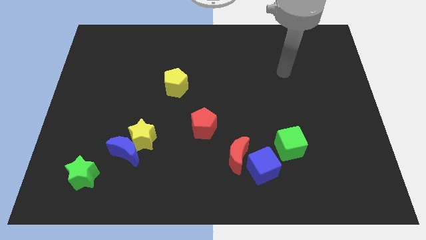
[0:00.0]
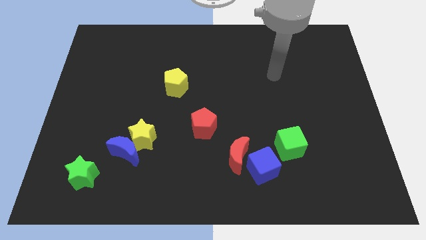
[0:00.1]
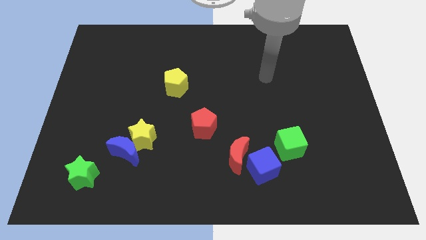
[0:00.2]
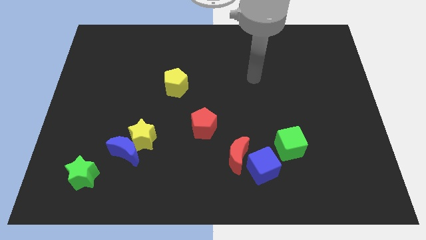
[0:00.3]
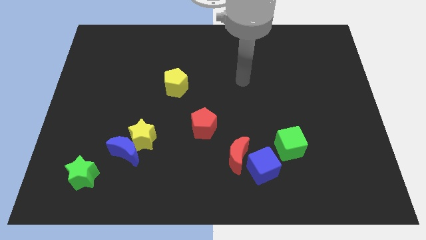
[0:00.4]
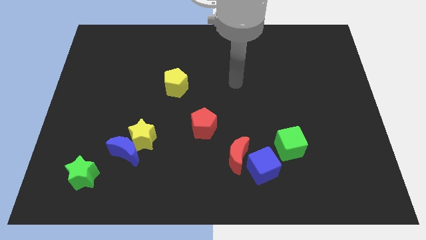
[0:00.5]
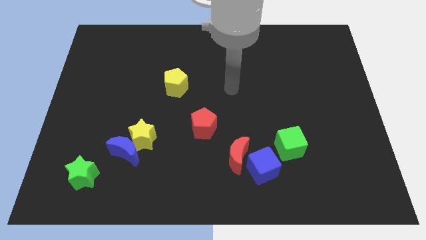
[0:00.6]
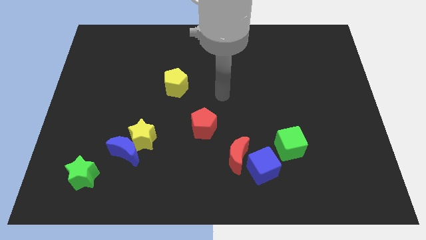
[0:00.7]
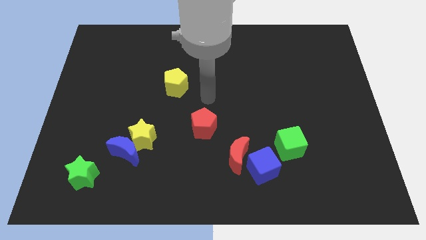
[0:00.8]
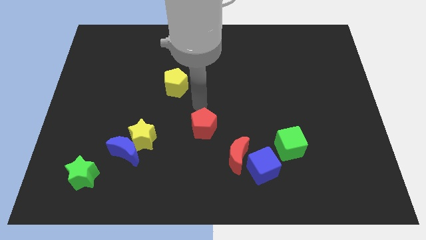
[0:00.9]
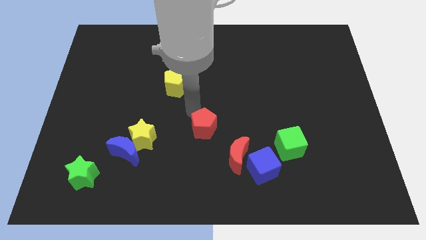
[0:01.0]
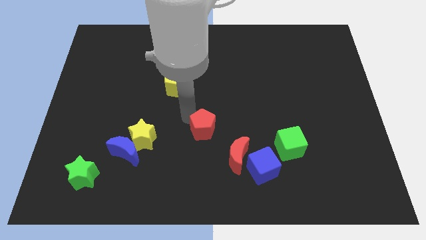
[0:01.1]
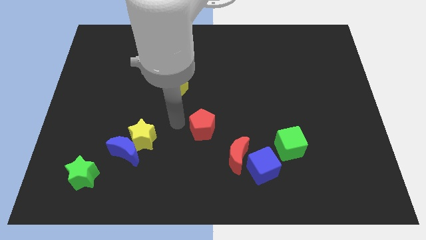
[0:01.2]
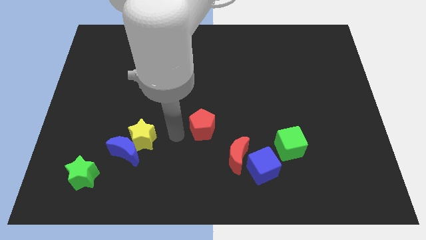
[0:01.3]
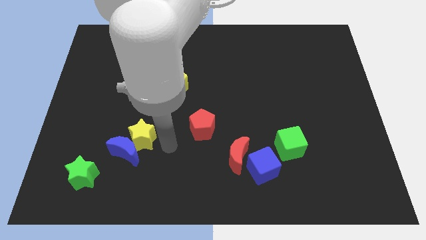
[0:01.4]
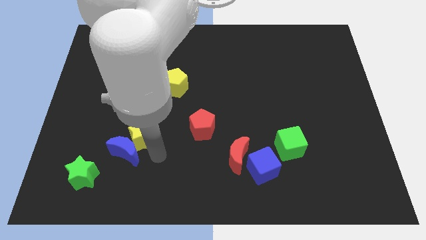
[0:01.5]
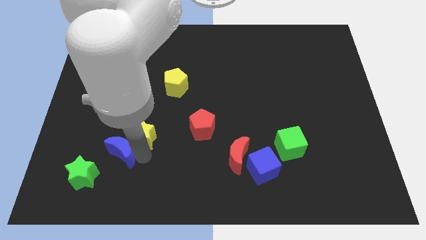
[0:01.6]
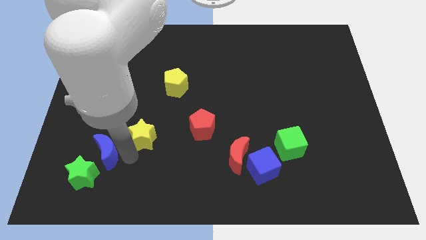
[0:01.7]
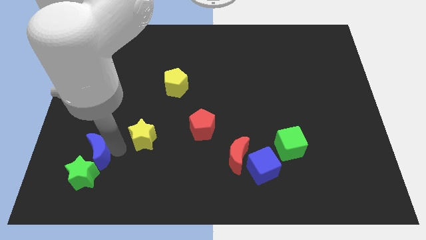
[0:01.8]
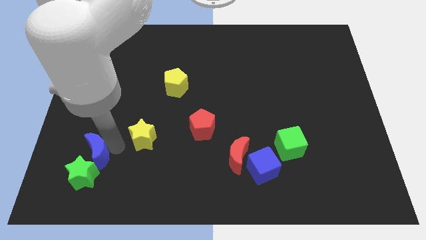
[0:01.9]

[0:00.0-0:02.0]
separate the yellow star from the blue moon

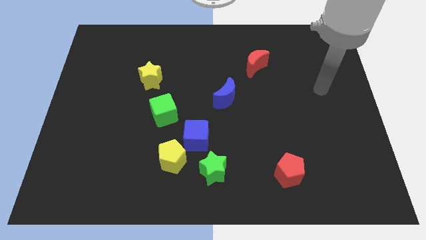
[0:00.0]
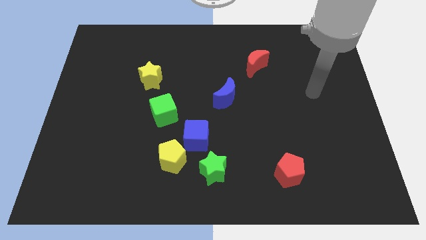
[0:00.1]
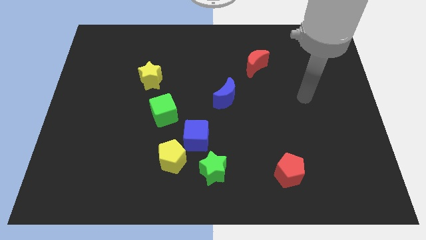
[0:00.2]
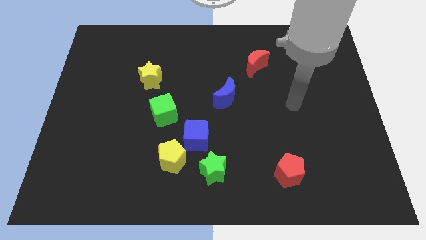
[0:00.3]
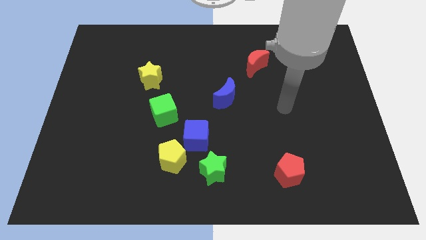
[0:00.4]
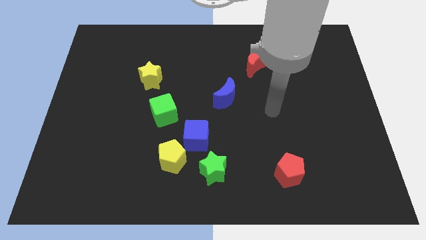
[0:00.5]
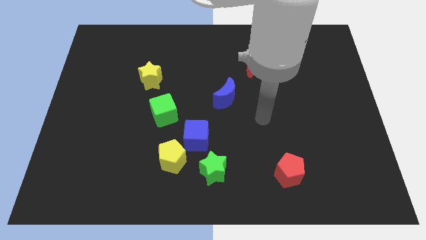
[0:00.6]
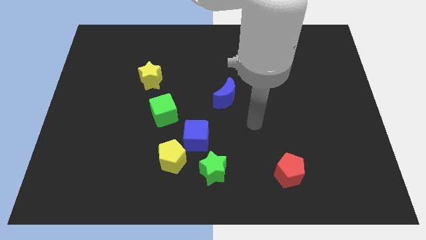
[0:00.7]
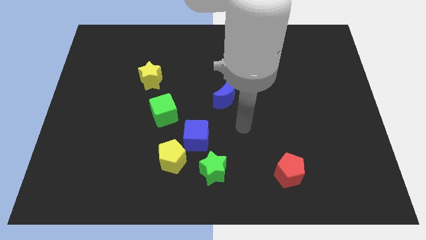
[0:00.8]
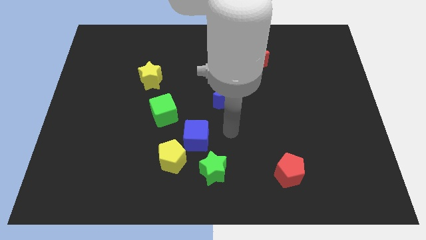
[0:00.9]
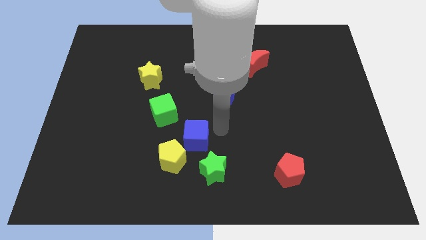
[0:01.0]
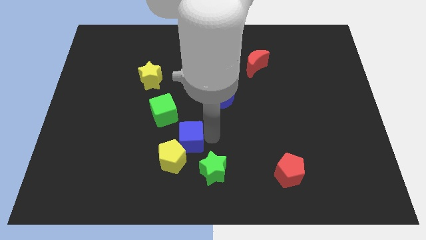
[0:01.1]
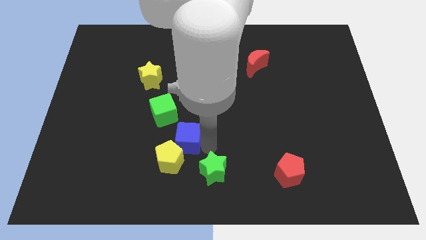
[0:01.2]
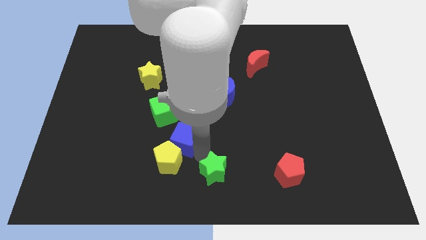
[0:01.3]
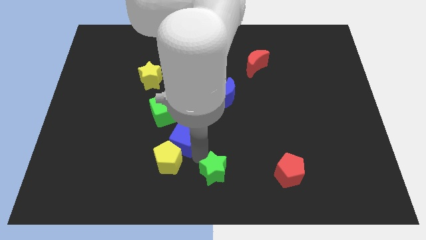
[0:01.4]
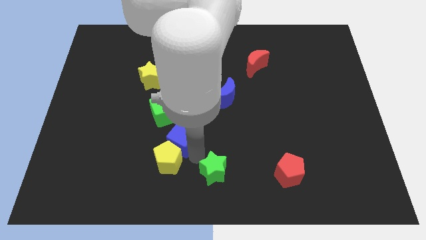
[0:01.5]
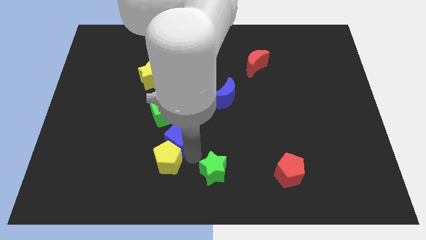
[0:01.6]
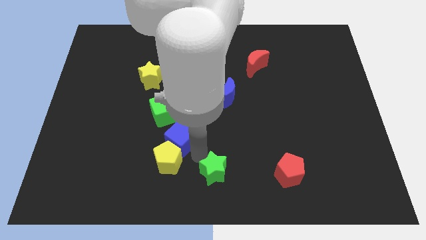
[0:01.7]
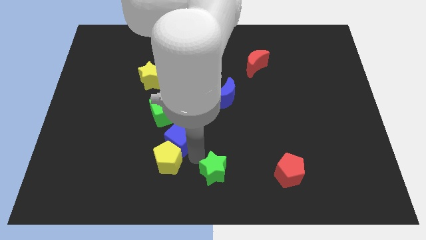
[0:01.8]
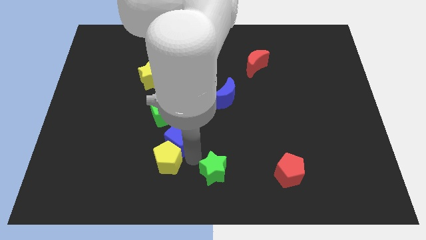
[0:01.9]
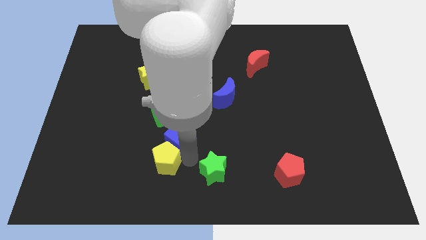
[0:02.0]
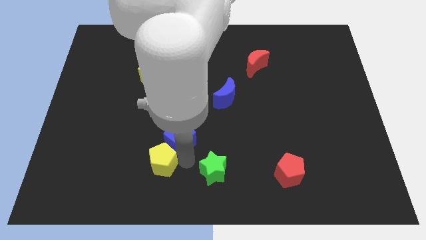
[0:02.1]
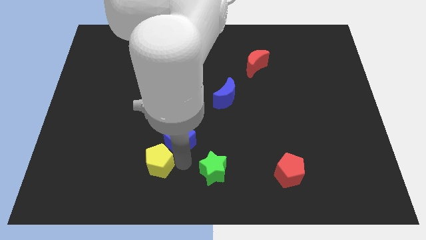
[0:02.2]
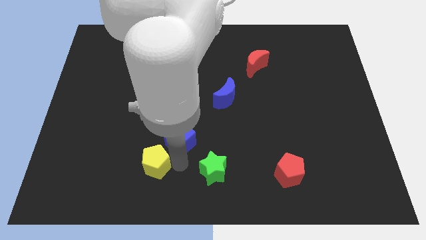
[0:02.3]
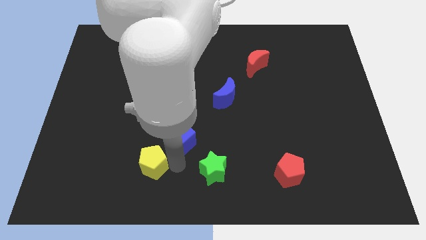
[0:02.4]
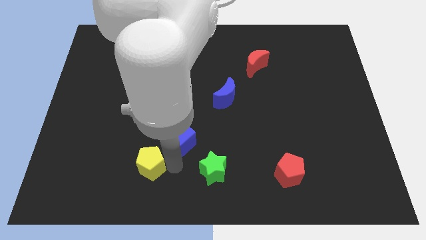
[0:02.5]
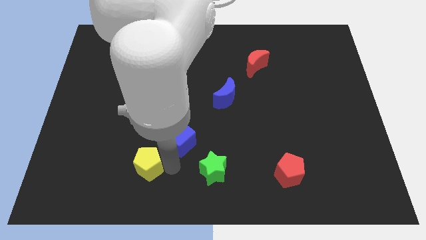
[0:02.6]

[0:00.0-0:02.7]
move the yellow pentagon away from the blue cube and green star

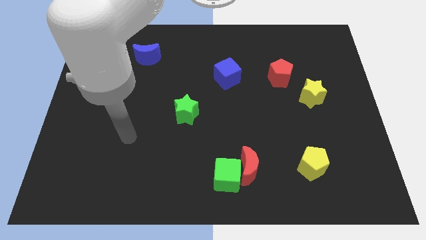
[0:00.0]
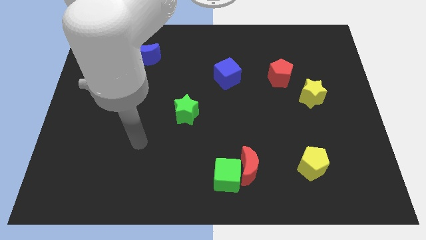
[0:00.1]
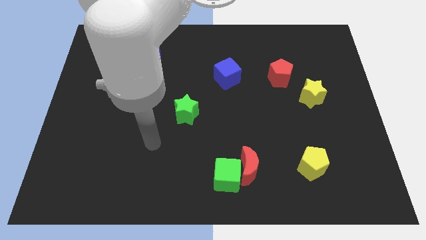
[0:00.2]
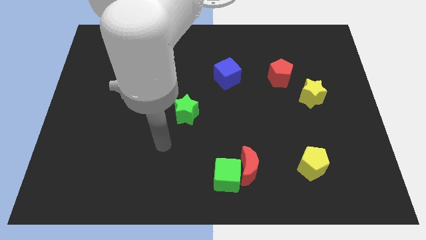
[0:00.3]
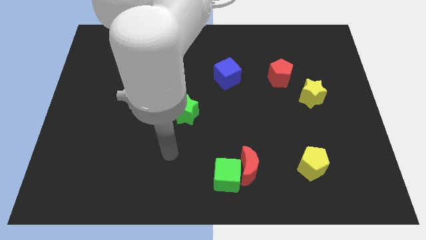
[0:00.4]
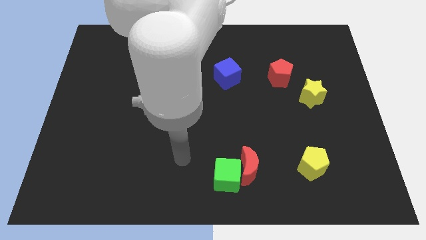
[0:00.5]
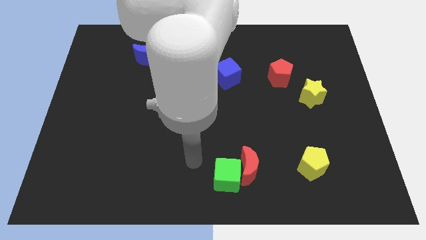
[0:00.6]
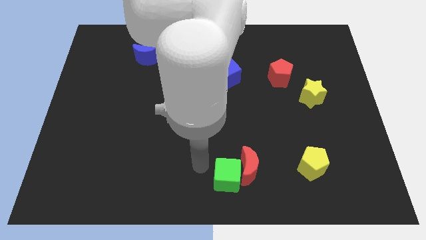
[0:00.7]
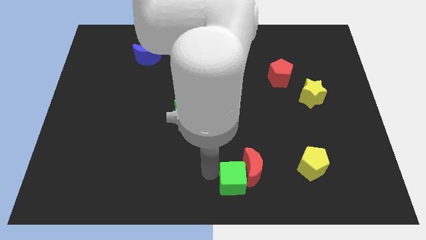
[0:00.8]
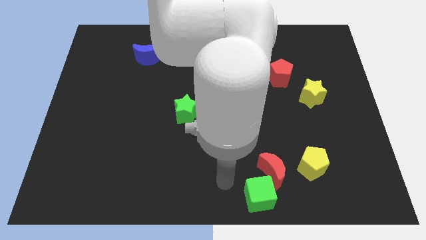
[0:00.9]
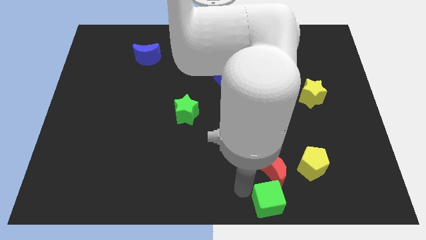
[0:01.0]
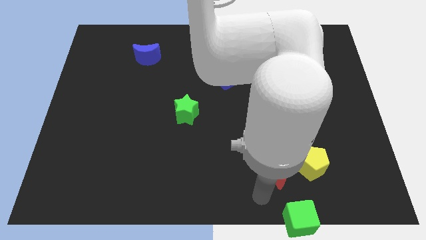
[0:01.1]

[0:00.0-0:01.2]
move the red moon away from the green cube

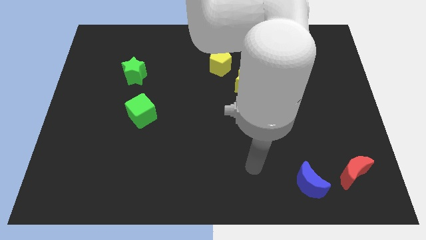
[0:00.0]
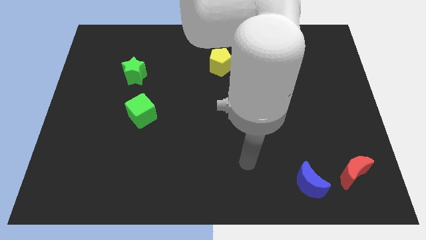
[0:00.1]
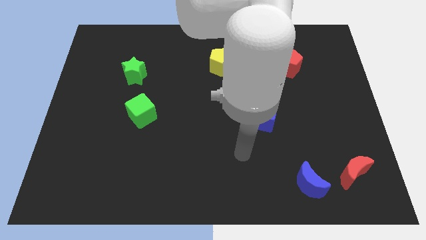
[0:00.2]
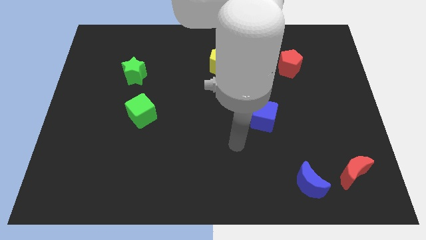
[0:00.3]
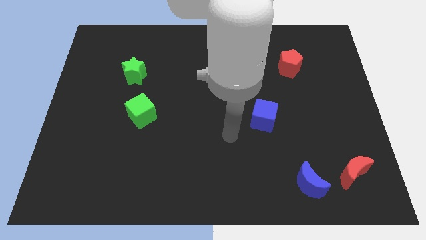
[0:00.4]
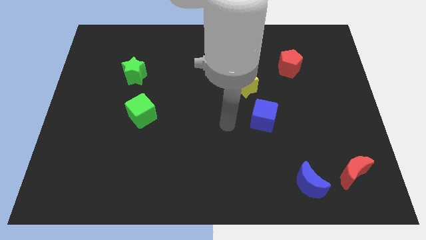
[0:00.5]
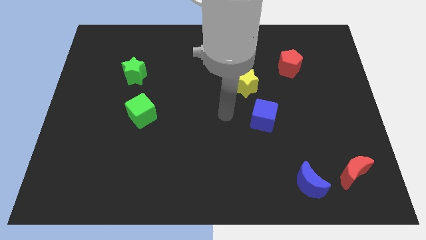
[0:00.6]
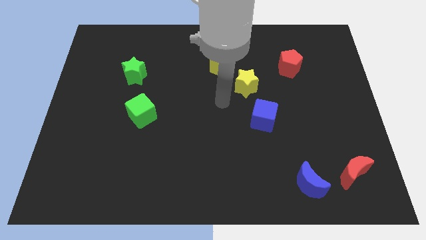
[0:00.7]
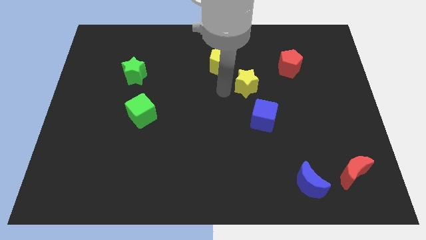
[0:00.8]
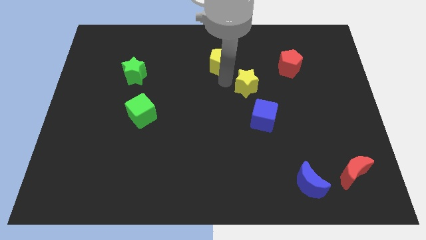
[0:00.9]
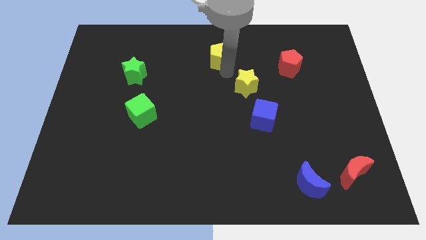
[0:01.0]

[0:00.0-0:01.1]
move the yellow star away from the yellow pentagon

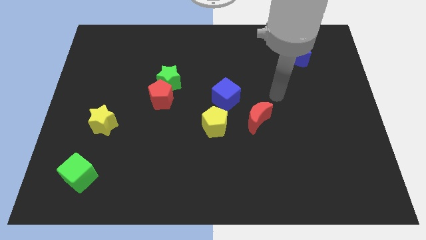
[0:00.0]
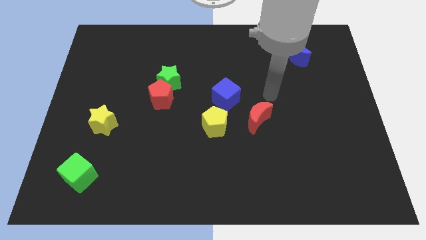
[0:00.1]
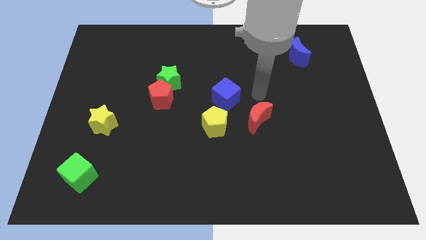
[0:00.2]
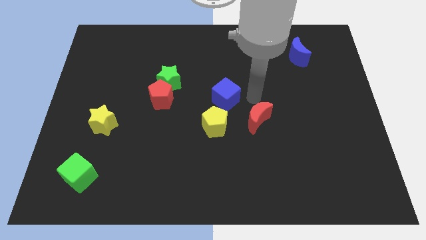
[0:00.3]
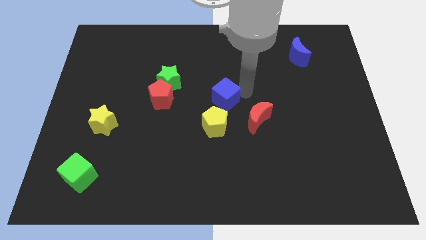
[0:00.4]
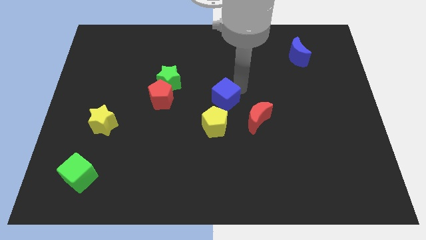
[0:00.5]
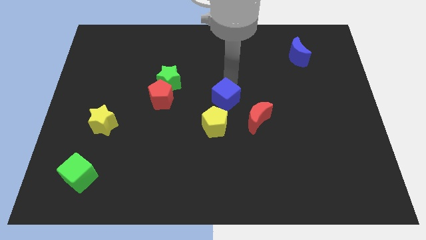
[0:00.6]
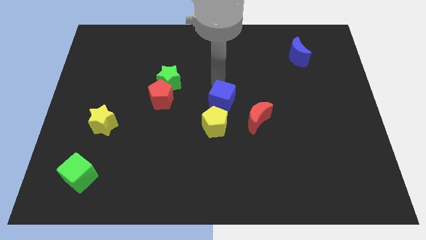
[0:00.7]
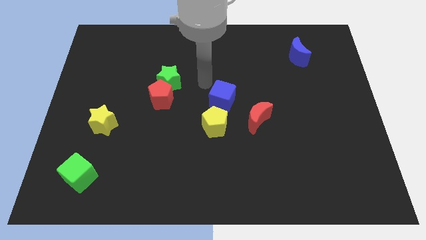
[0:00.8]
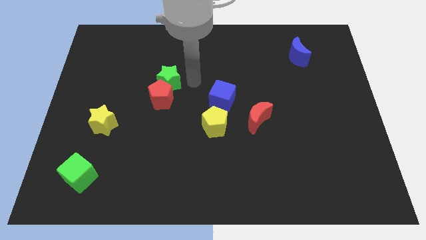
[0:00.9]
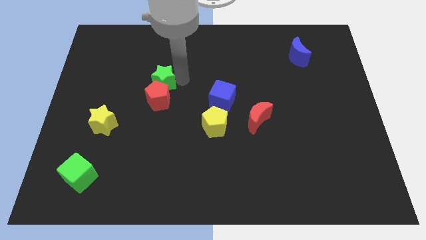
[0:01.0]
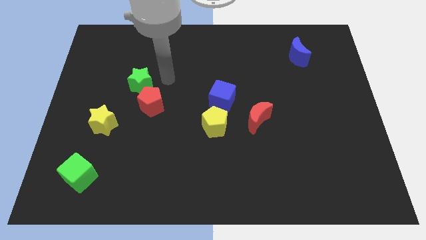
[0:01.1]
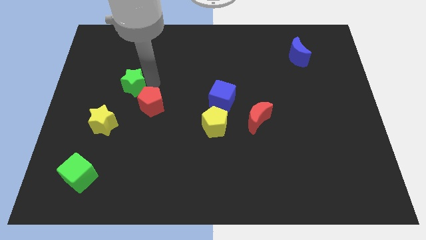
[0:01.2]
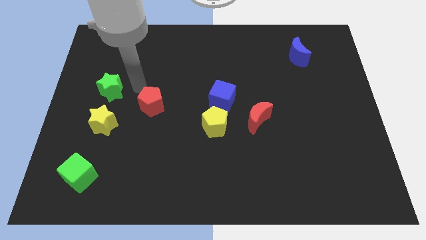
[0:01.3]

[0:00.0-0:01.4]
move the red pentagon away from the green star

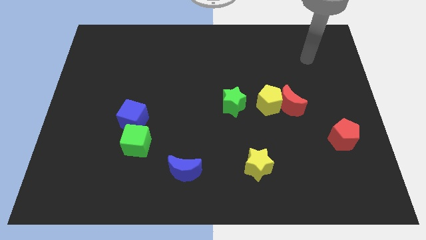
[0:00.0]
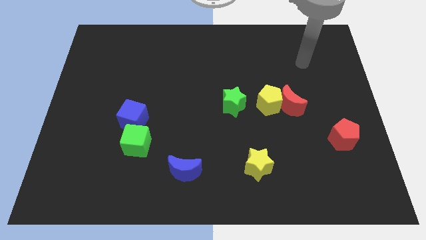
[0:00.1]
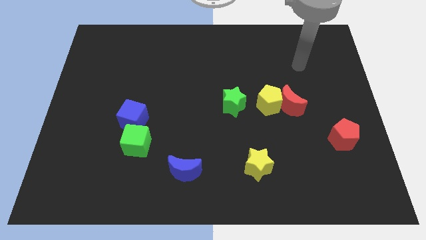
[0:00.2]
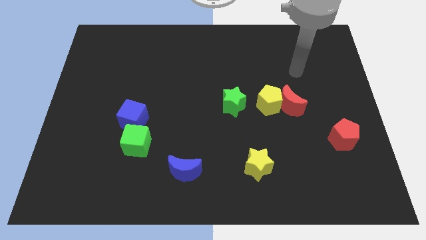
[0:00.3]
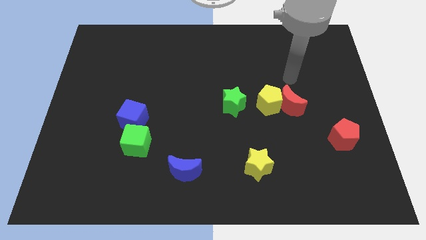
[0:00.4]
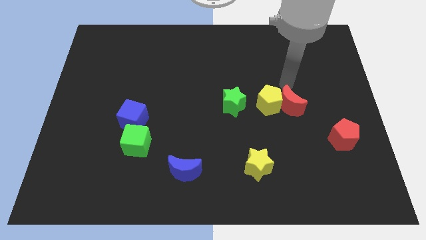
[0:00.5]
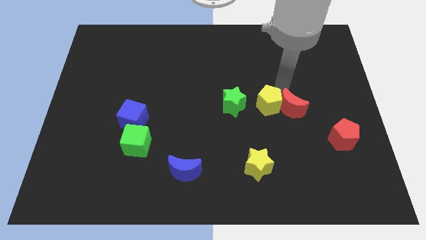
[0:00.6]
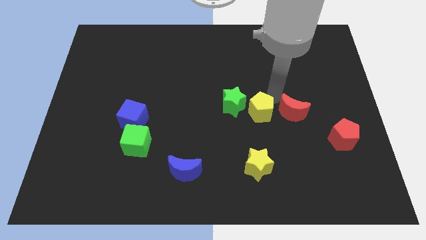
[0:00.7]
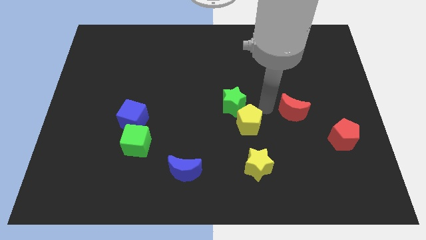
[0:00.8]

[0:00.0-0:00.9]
pull the red moon apart from the yellow pentagon
